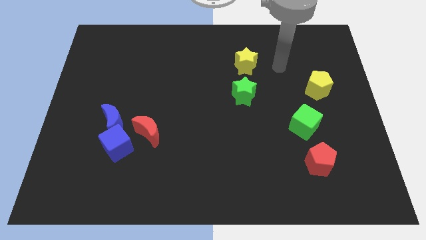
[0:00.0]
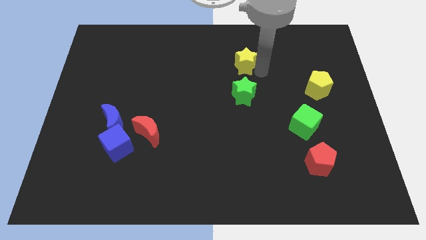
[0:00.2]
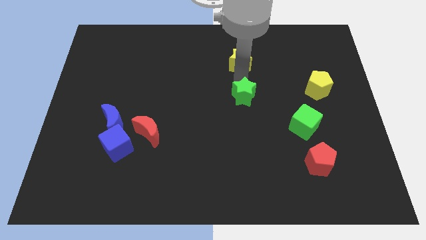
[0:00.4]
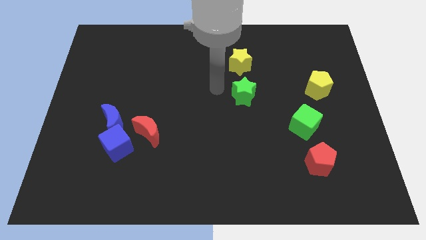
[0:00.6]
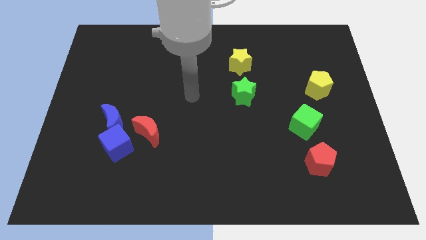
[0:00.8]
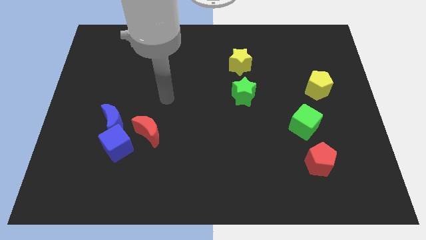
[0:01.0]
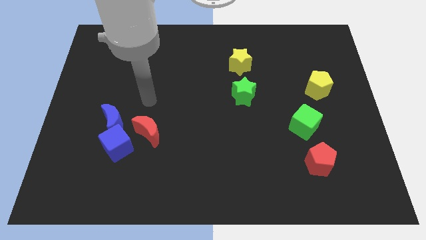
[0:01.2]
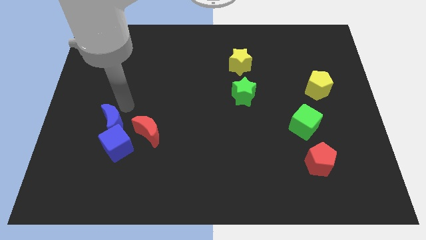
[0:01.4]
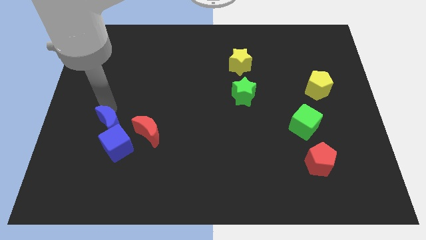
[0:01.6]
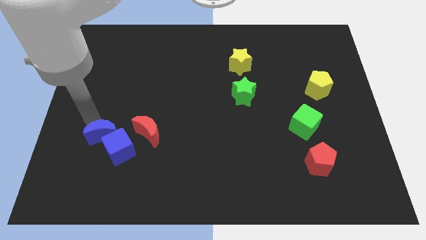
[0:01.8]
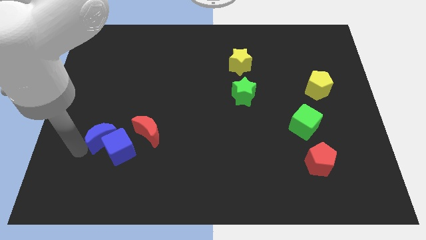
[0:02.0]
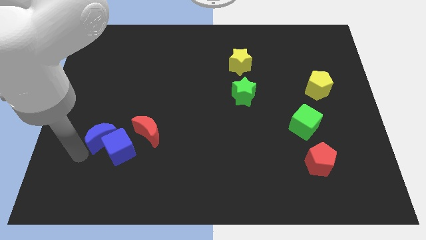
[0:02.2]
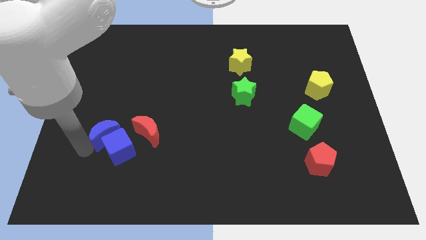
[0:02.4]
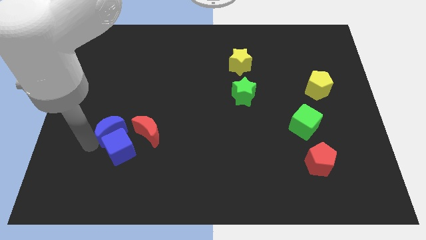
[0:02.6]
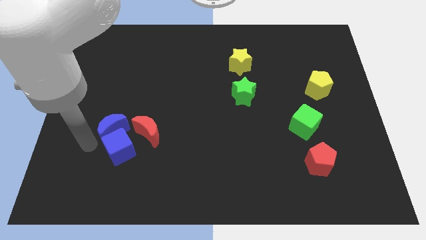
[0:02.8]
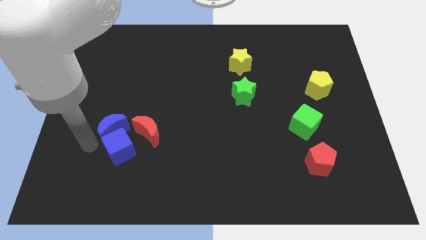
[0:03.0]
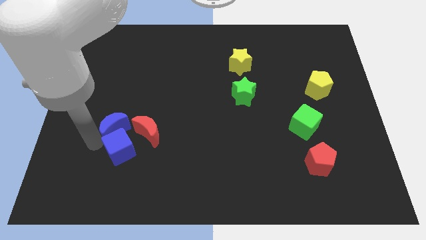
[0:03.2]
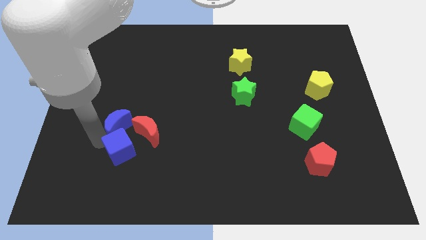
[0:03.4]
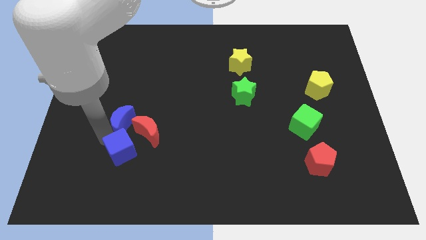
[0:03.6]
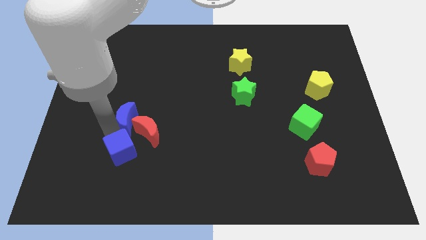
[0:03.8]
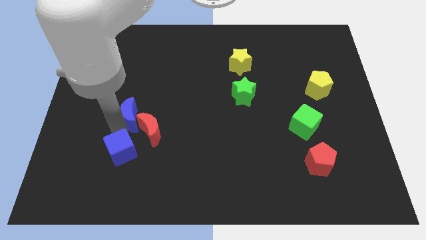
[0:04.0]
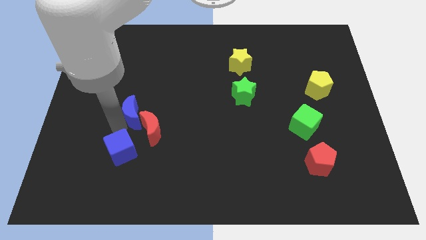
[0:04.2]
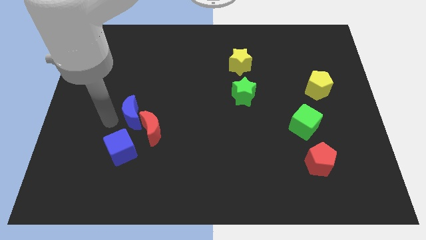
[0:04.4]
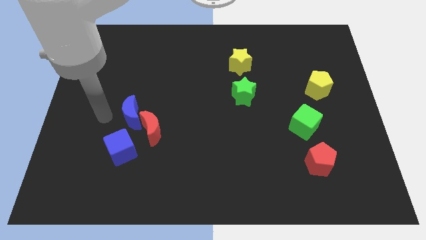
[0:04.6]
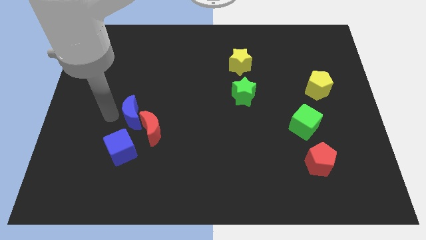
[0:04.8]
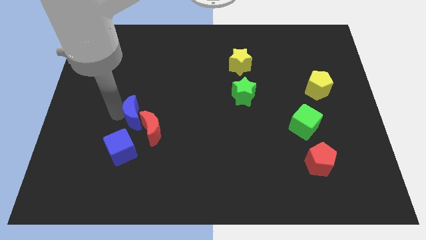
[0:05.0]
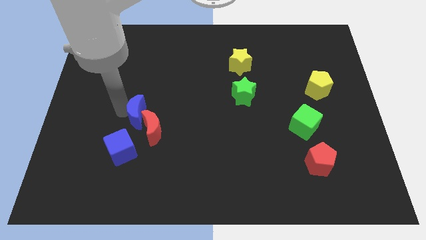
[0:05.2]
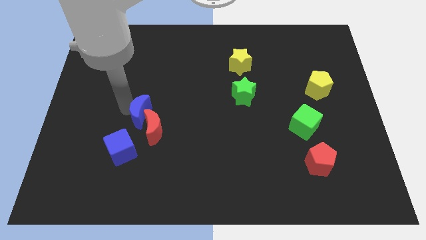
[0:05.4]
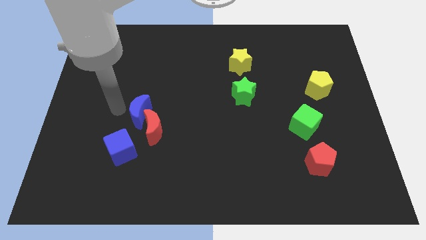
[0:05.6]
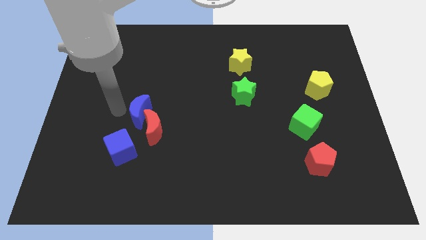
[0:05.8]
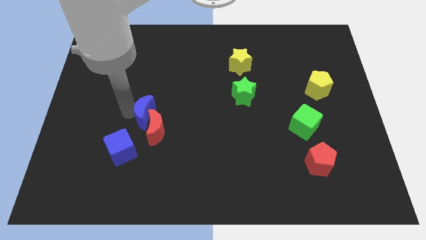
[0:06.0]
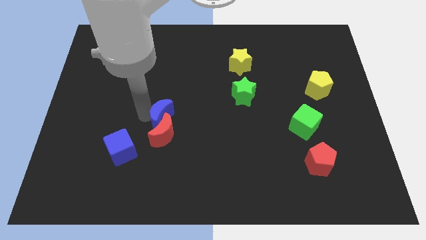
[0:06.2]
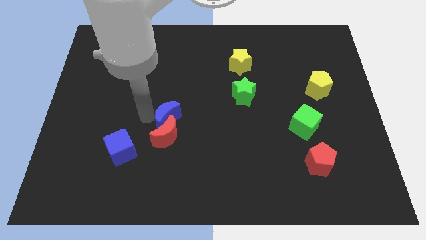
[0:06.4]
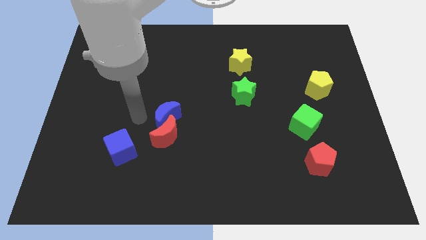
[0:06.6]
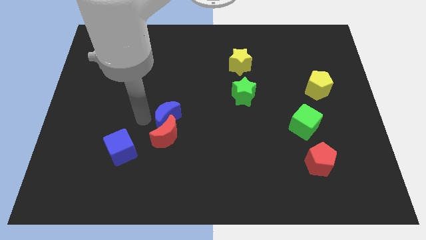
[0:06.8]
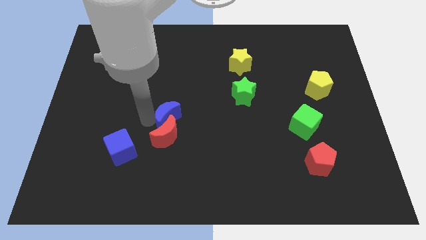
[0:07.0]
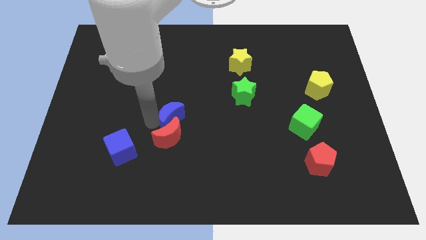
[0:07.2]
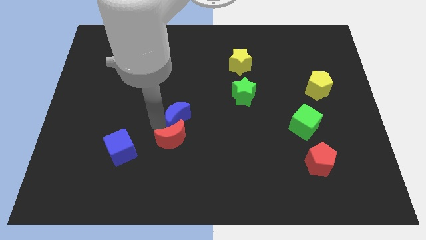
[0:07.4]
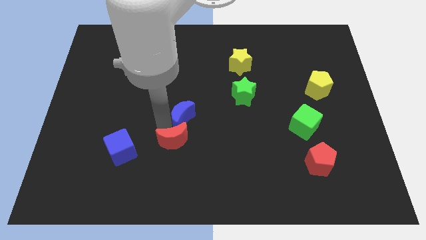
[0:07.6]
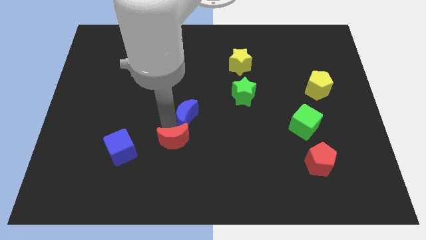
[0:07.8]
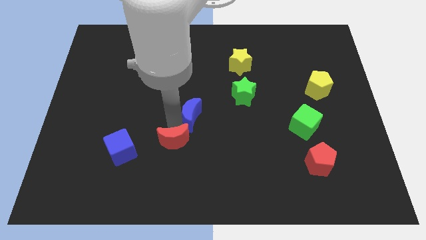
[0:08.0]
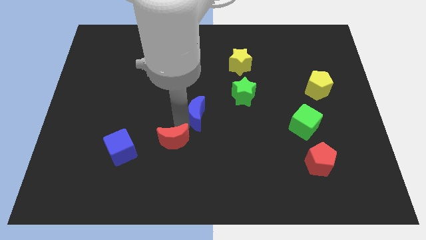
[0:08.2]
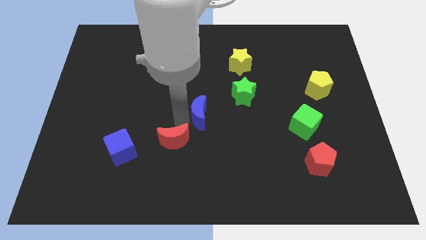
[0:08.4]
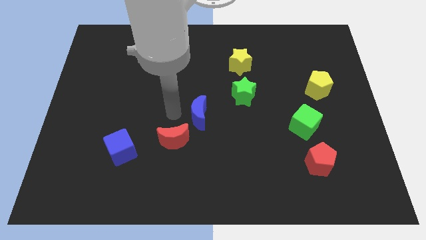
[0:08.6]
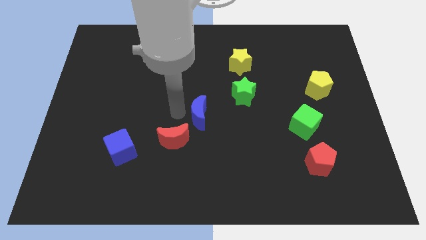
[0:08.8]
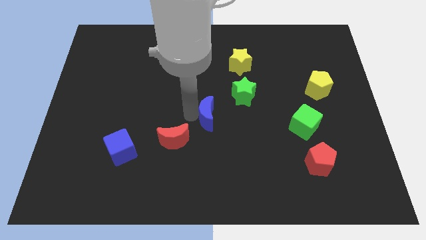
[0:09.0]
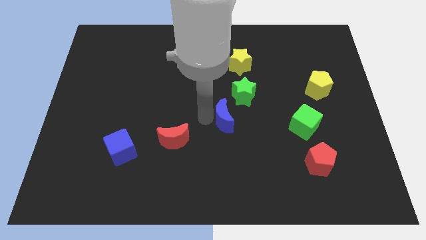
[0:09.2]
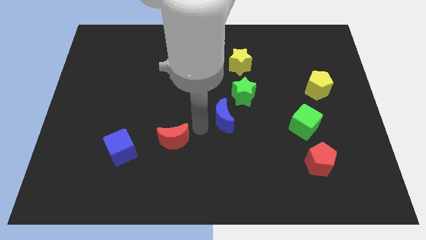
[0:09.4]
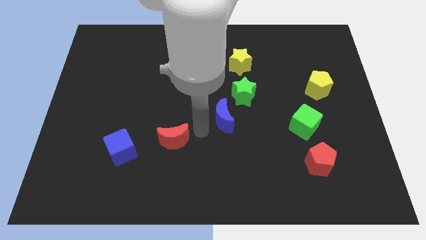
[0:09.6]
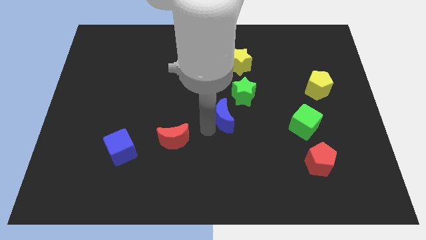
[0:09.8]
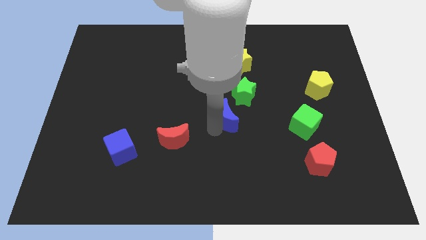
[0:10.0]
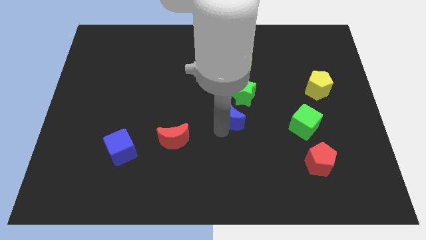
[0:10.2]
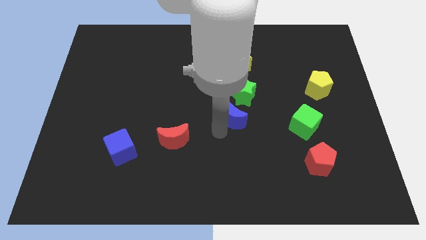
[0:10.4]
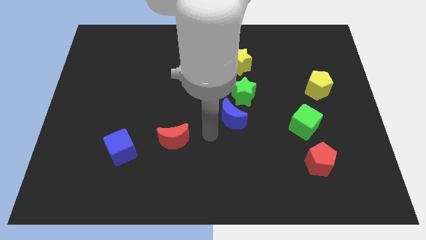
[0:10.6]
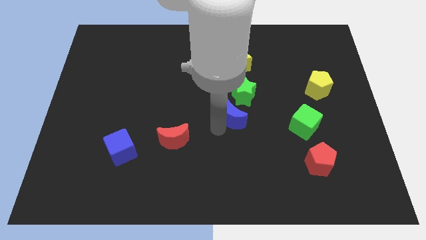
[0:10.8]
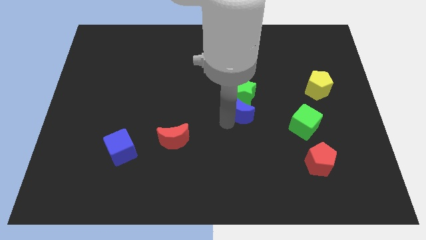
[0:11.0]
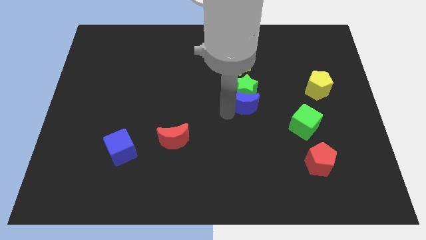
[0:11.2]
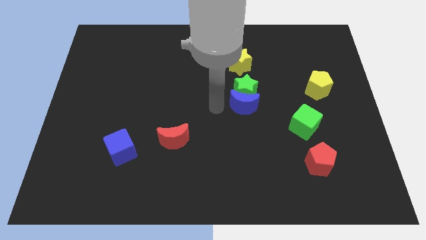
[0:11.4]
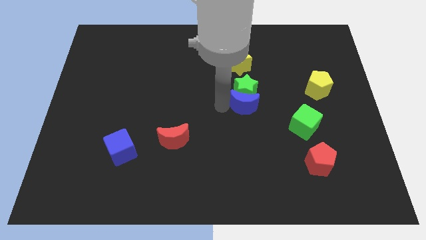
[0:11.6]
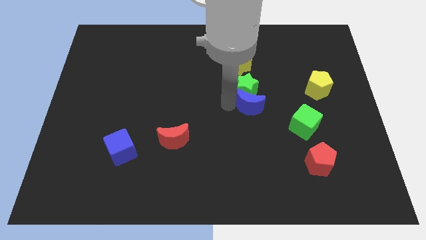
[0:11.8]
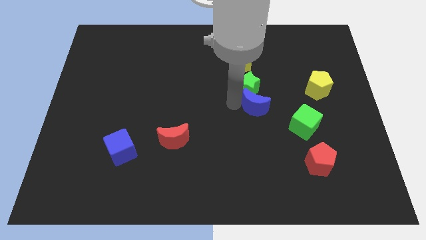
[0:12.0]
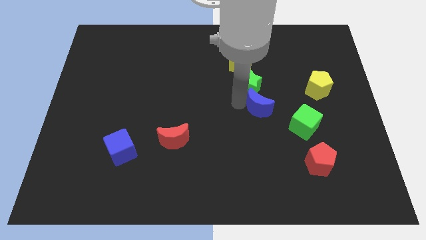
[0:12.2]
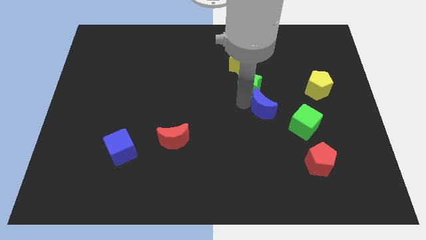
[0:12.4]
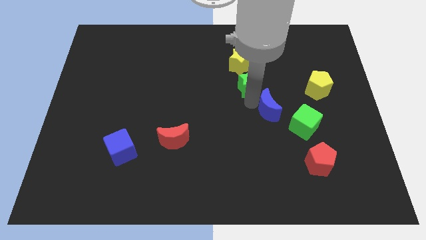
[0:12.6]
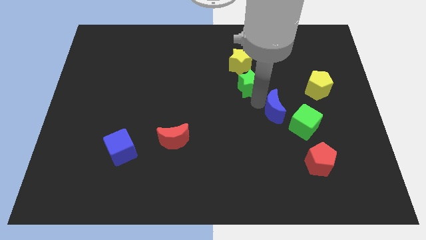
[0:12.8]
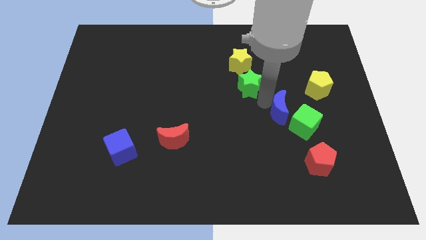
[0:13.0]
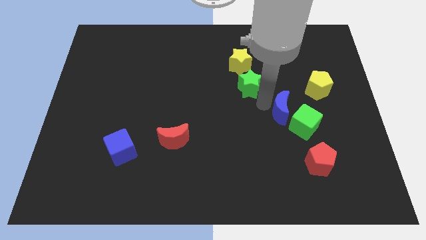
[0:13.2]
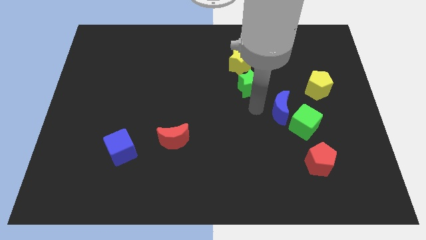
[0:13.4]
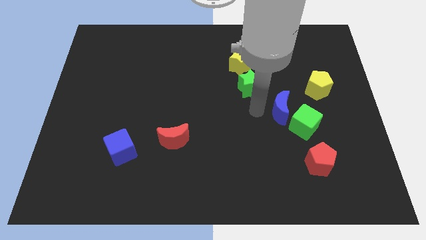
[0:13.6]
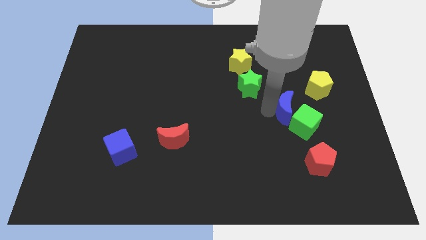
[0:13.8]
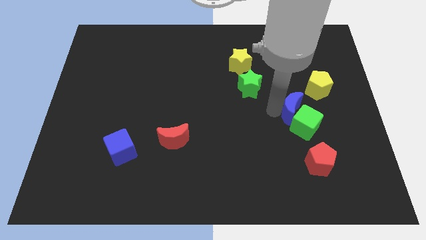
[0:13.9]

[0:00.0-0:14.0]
put the blue moon to the top of the red pentagon
